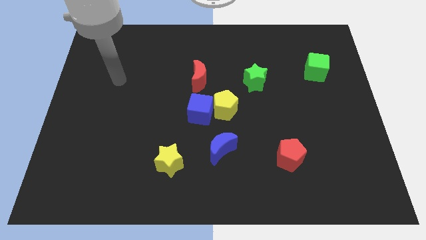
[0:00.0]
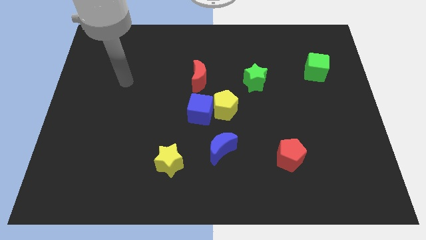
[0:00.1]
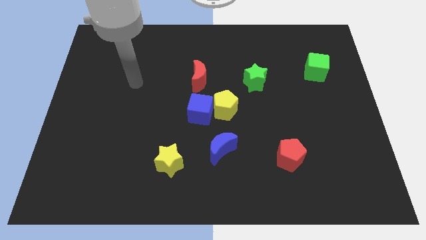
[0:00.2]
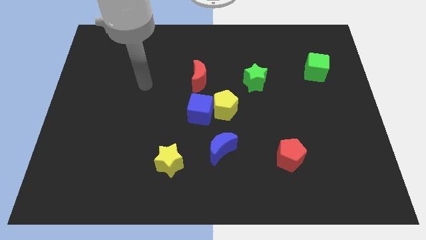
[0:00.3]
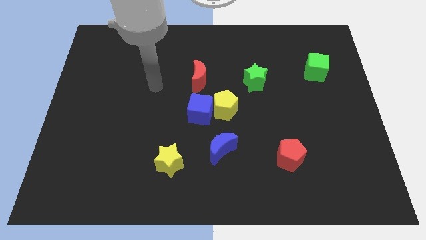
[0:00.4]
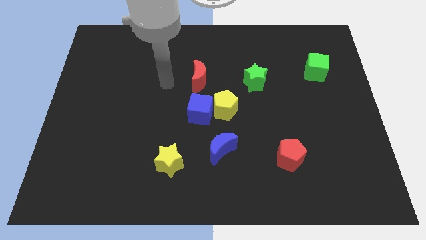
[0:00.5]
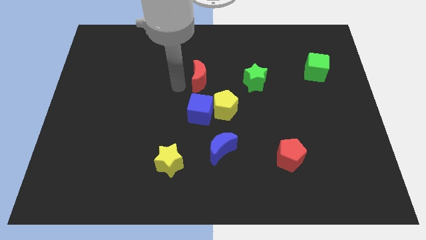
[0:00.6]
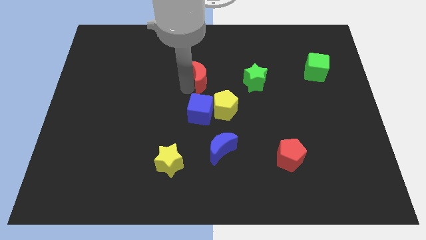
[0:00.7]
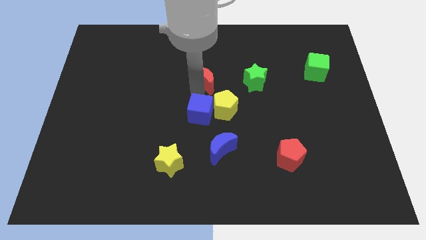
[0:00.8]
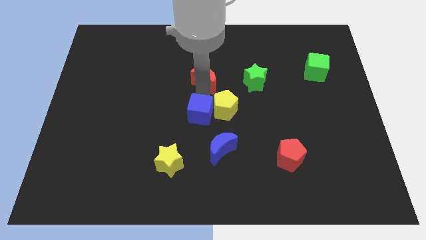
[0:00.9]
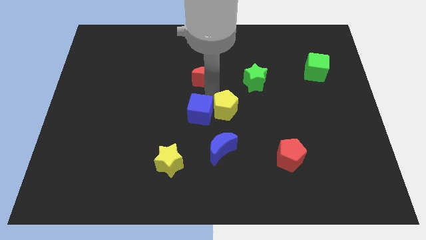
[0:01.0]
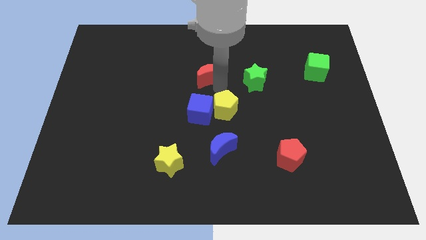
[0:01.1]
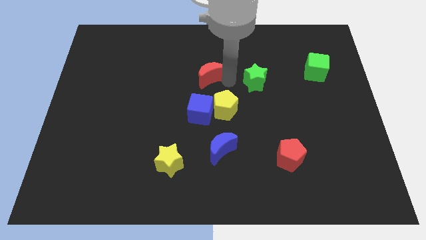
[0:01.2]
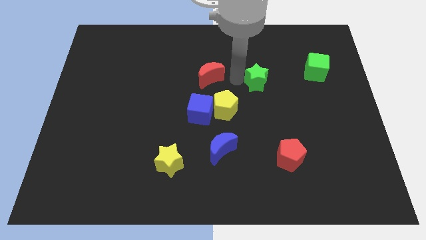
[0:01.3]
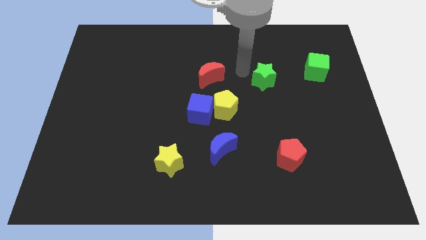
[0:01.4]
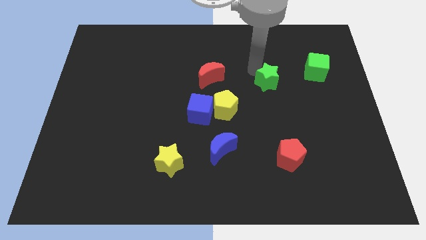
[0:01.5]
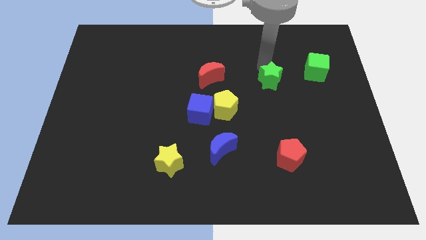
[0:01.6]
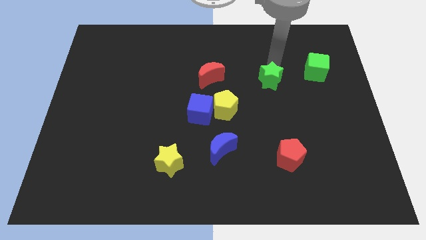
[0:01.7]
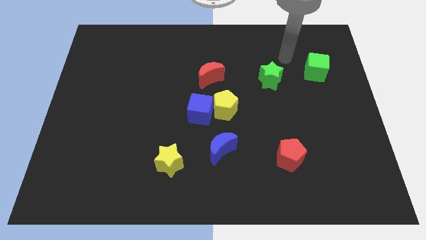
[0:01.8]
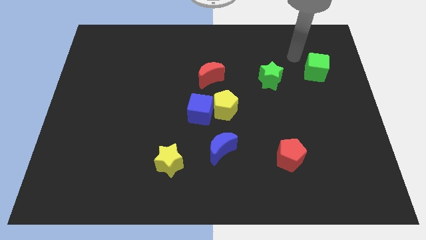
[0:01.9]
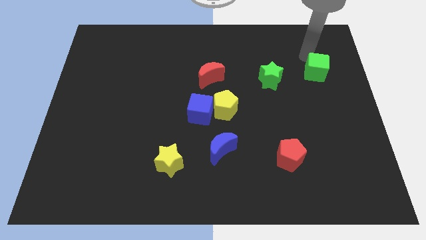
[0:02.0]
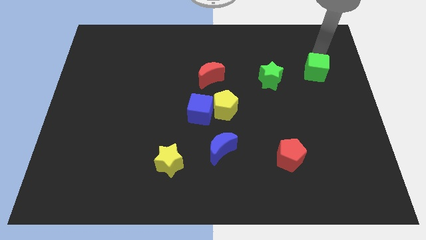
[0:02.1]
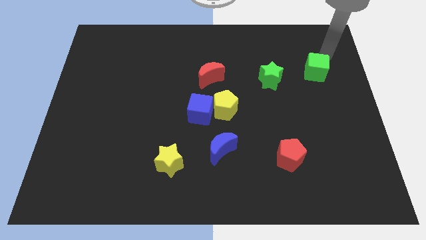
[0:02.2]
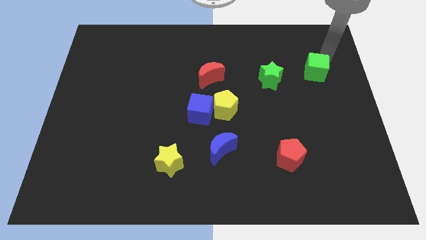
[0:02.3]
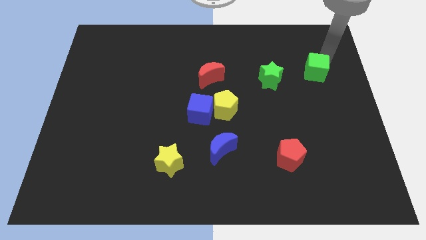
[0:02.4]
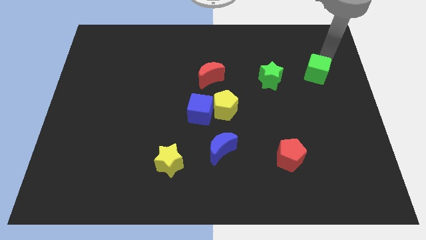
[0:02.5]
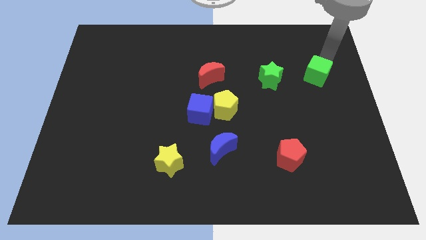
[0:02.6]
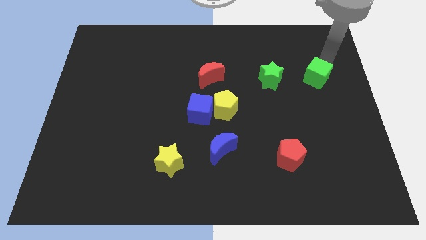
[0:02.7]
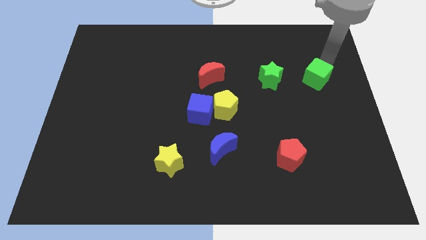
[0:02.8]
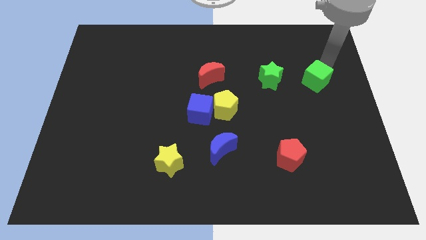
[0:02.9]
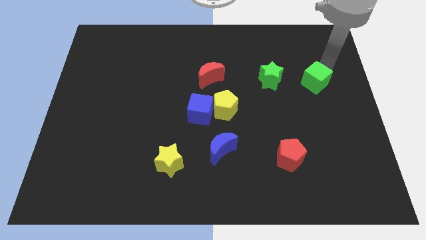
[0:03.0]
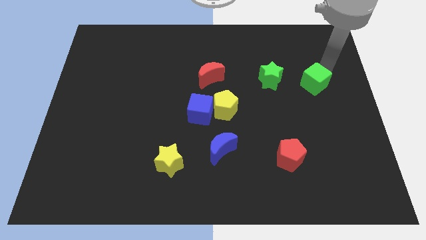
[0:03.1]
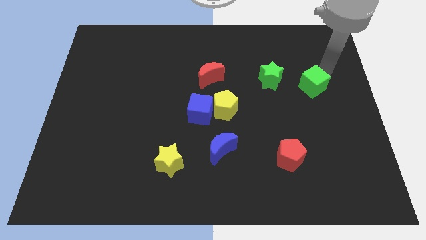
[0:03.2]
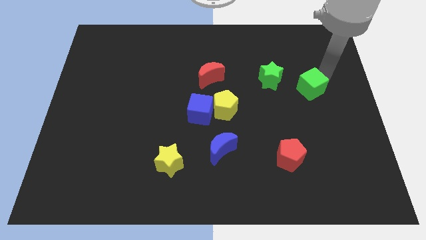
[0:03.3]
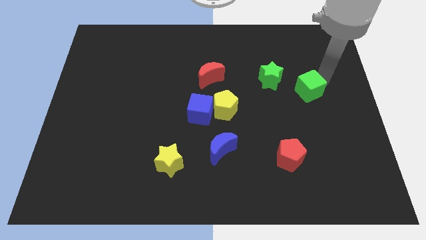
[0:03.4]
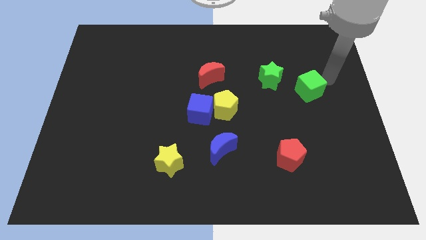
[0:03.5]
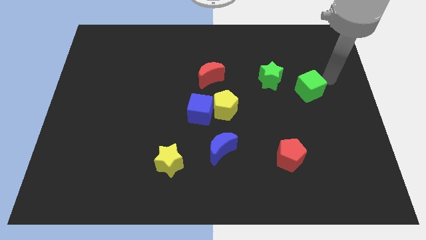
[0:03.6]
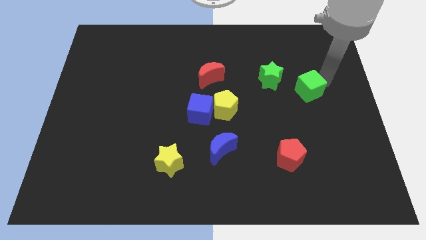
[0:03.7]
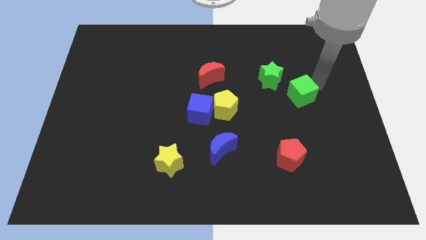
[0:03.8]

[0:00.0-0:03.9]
slightly slide the green cube diagonally down and left

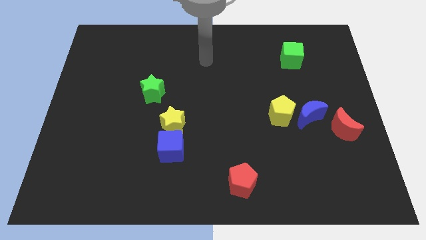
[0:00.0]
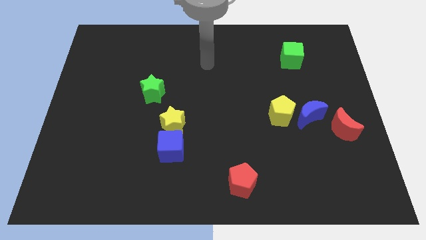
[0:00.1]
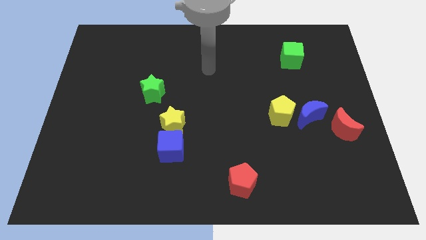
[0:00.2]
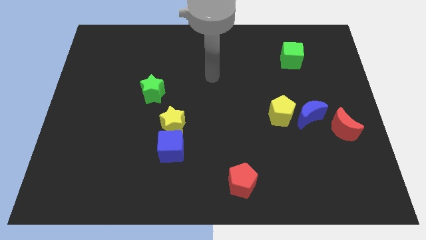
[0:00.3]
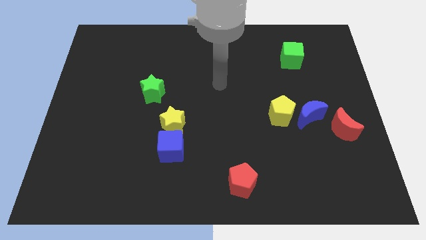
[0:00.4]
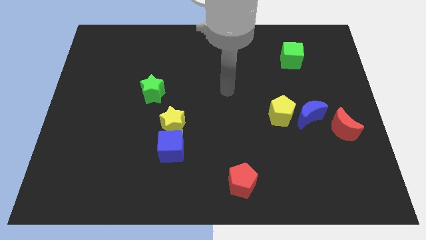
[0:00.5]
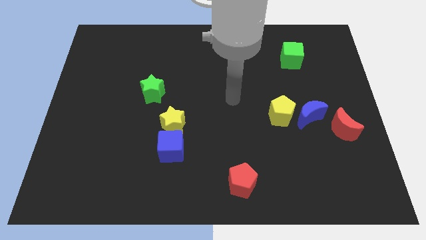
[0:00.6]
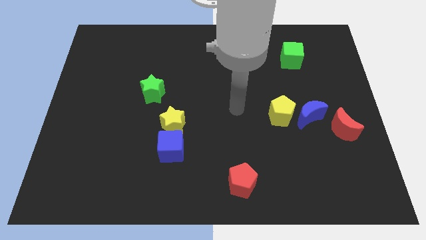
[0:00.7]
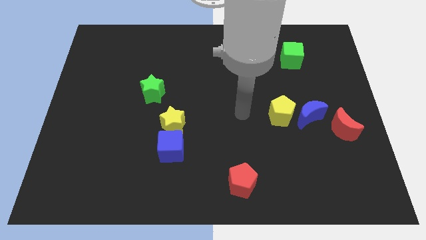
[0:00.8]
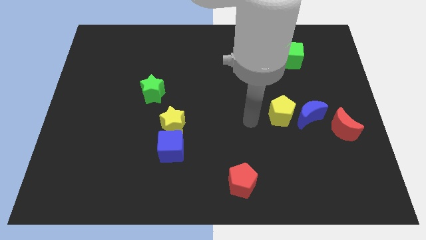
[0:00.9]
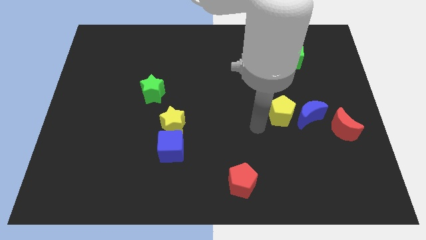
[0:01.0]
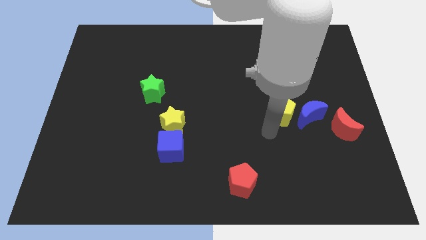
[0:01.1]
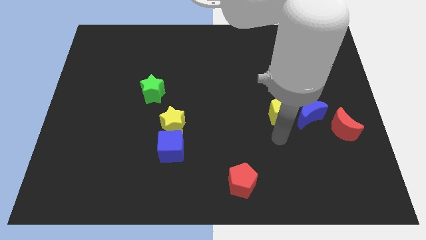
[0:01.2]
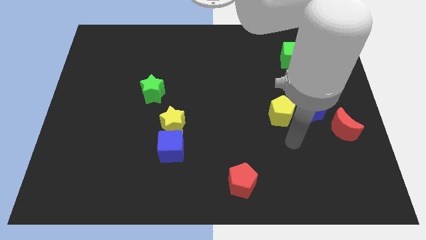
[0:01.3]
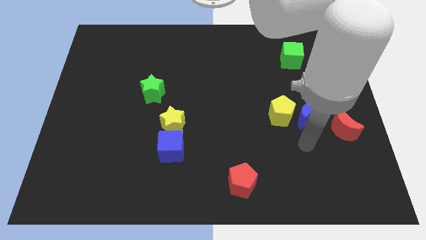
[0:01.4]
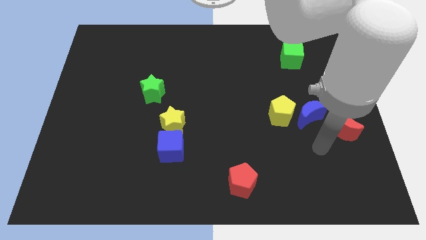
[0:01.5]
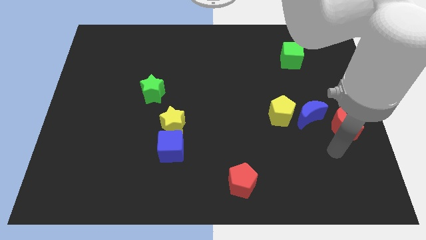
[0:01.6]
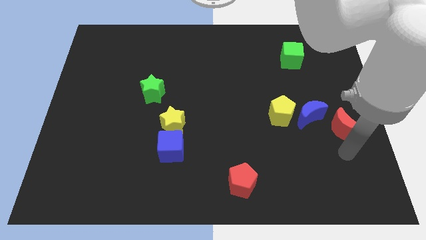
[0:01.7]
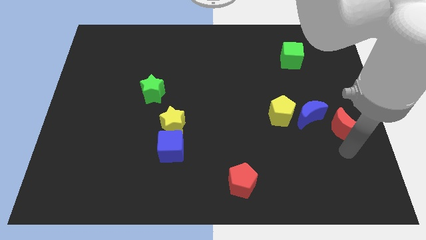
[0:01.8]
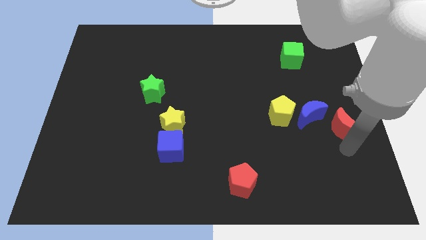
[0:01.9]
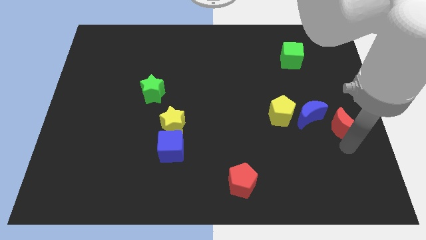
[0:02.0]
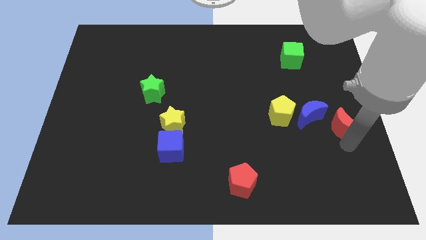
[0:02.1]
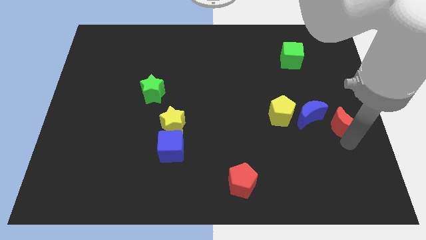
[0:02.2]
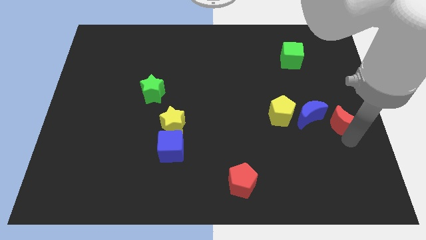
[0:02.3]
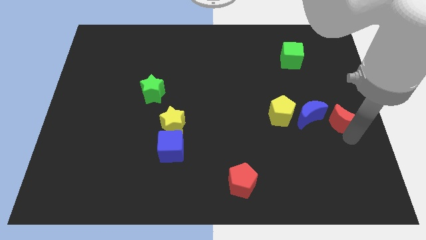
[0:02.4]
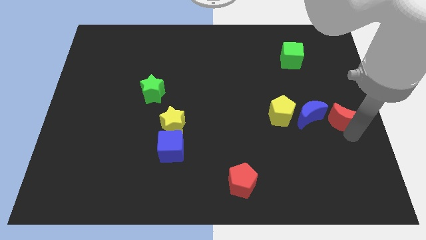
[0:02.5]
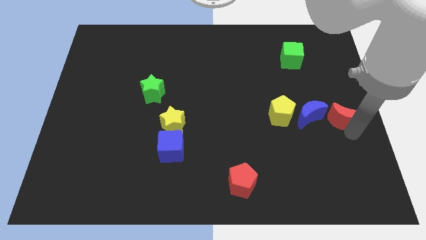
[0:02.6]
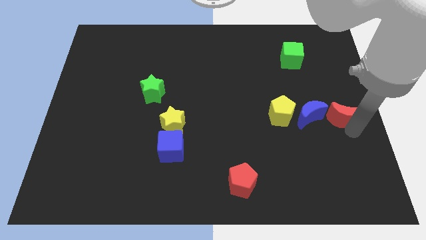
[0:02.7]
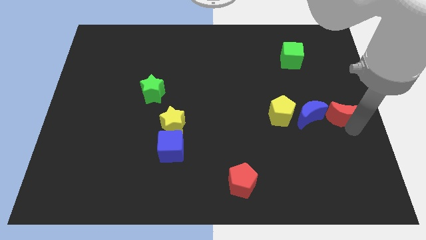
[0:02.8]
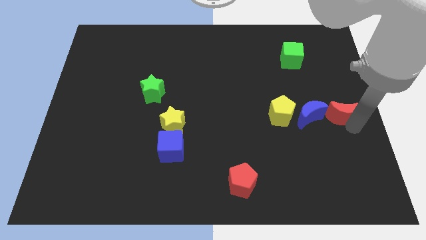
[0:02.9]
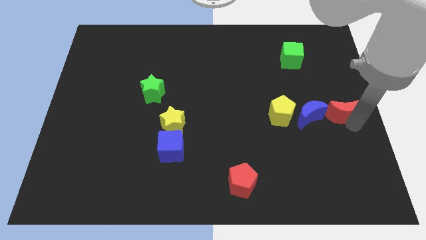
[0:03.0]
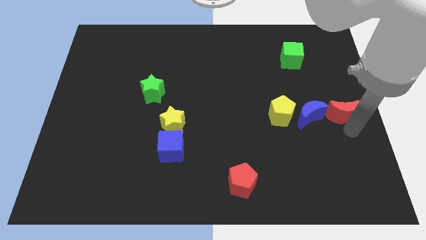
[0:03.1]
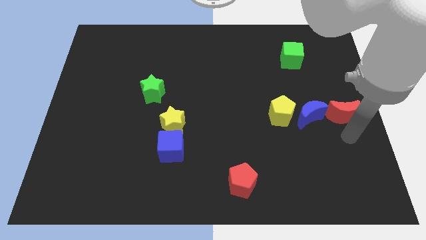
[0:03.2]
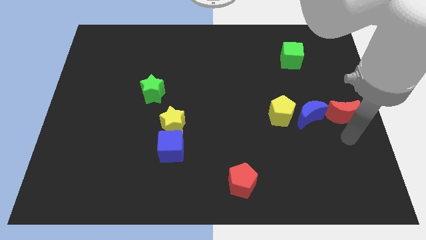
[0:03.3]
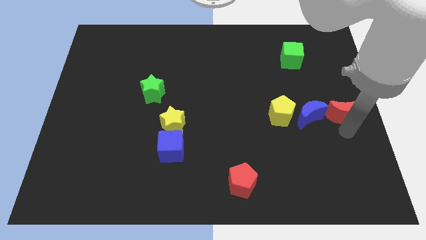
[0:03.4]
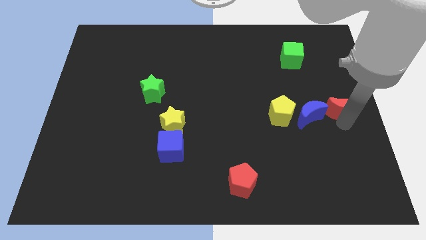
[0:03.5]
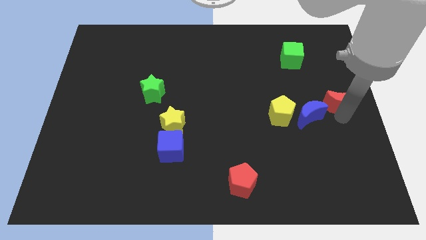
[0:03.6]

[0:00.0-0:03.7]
slightly move the red moon upwards

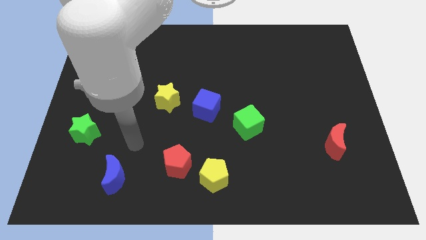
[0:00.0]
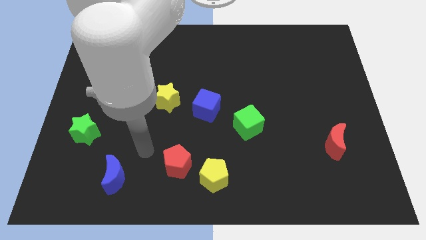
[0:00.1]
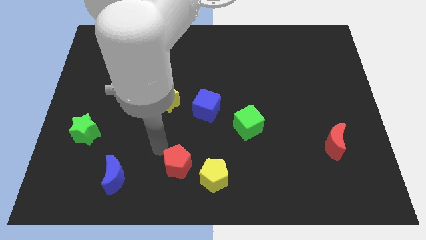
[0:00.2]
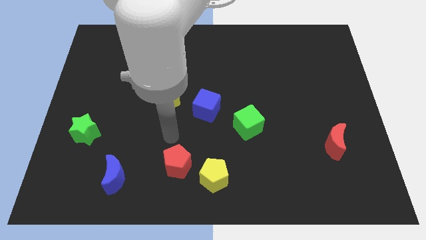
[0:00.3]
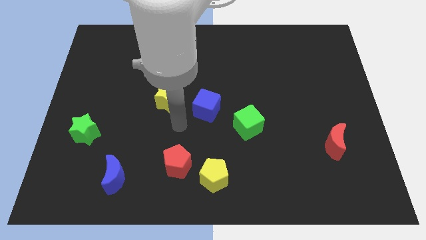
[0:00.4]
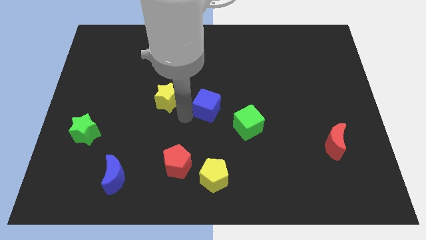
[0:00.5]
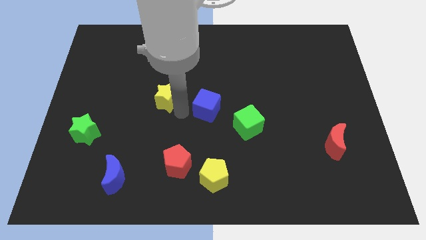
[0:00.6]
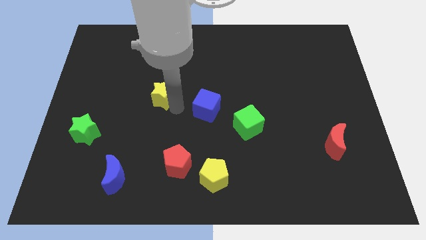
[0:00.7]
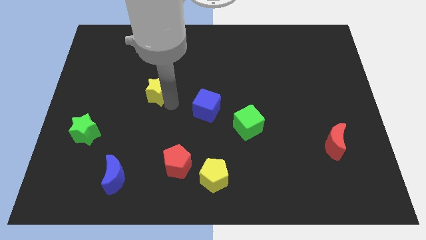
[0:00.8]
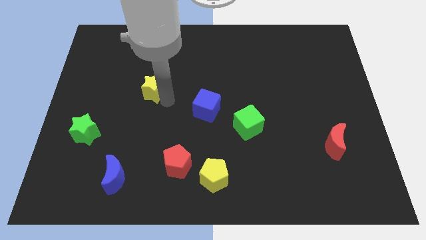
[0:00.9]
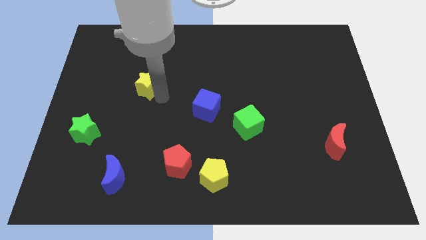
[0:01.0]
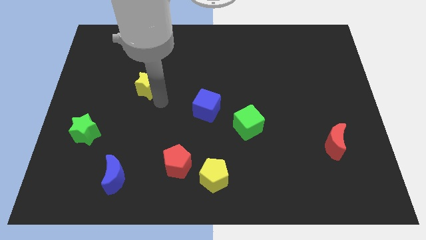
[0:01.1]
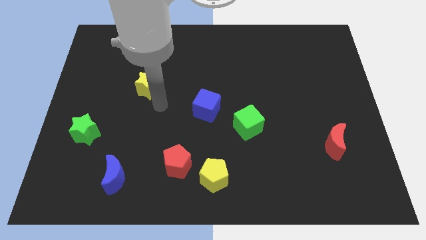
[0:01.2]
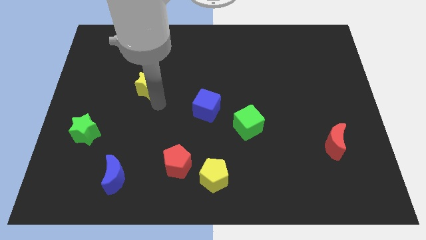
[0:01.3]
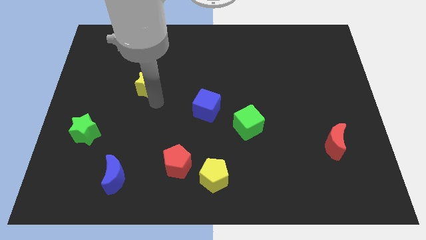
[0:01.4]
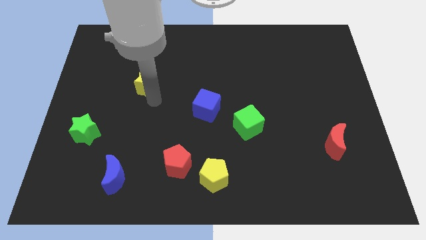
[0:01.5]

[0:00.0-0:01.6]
slide the yellow star slightly up and then to the left
